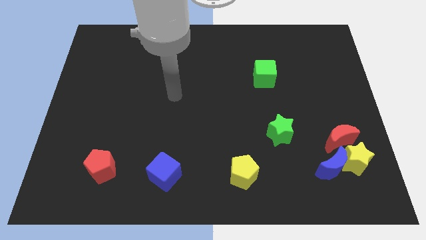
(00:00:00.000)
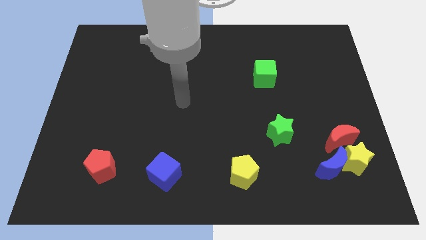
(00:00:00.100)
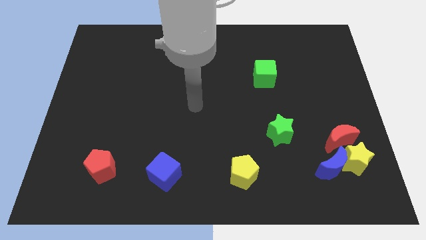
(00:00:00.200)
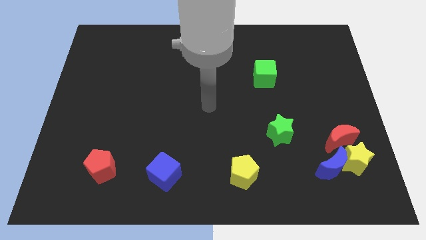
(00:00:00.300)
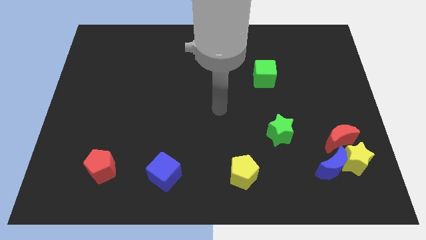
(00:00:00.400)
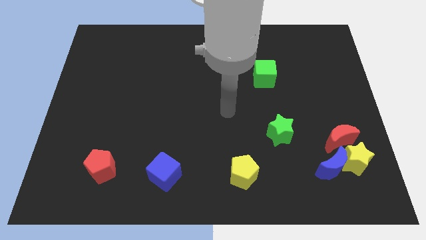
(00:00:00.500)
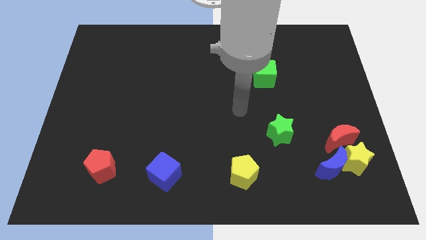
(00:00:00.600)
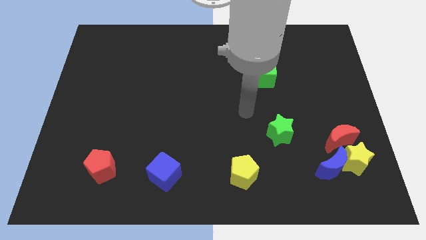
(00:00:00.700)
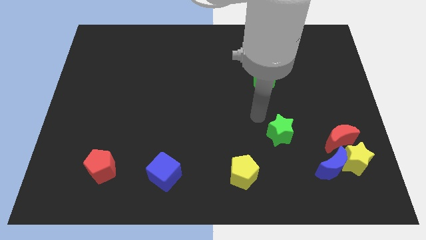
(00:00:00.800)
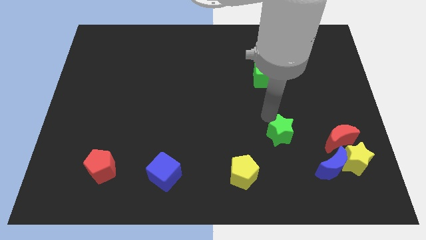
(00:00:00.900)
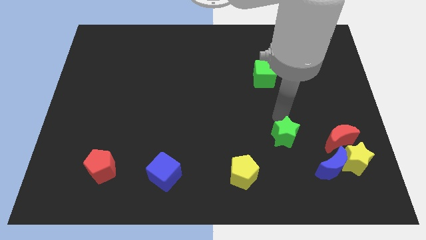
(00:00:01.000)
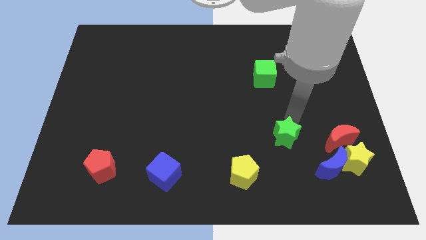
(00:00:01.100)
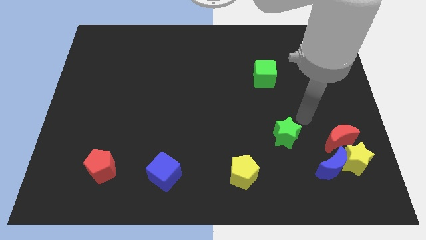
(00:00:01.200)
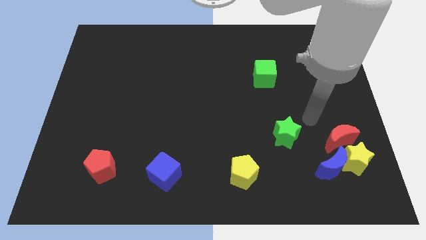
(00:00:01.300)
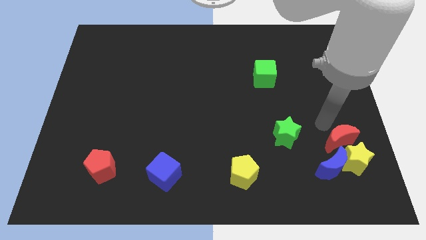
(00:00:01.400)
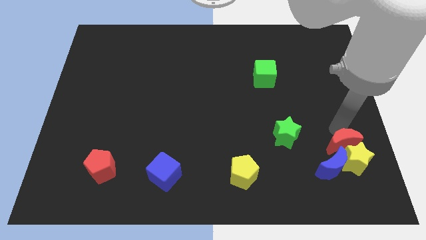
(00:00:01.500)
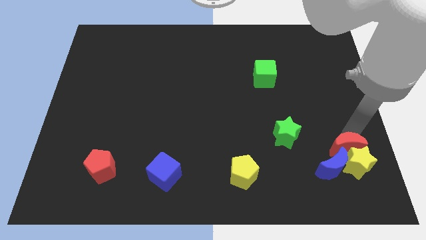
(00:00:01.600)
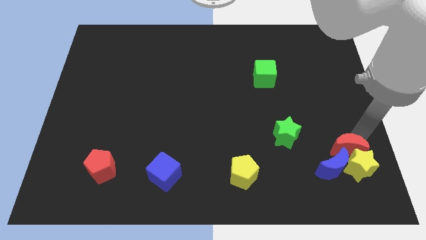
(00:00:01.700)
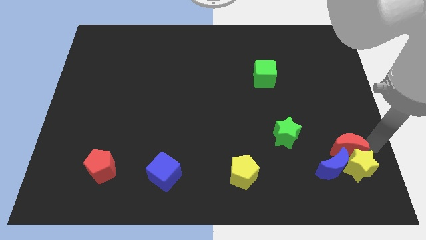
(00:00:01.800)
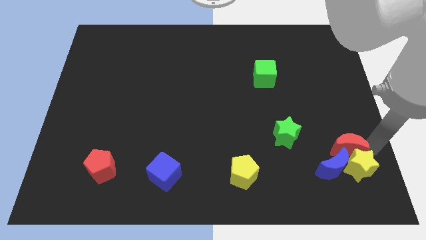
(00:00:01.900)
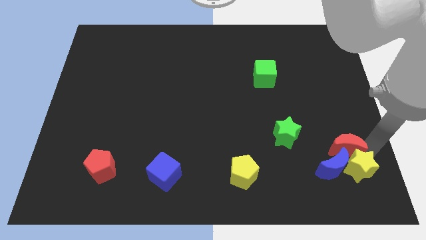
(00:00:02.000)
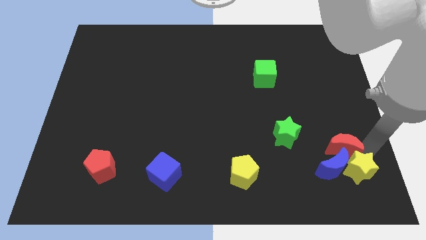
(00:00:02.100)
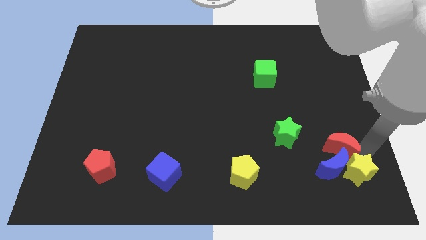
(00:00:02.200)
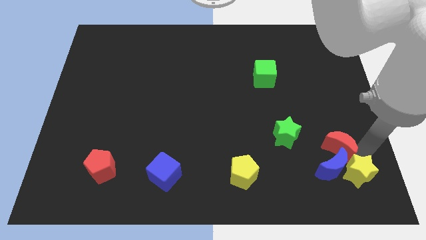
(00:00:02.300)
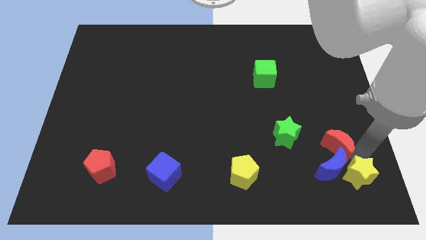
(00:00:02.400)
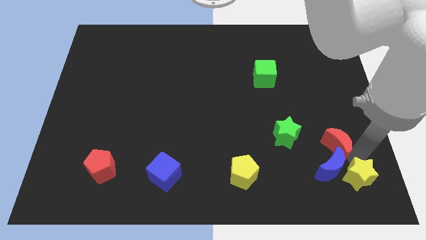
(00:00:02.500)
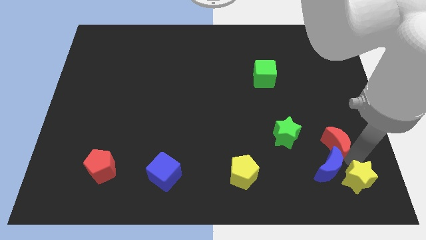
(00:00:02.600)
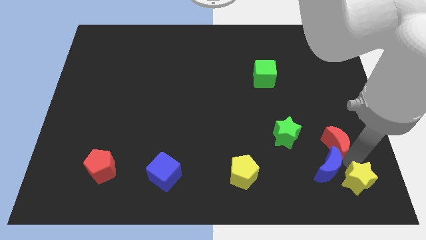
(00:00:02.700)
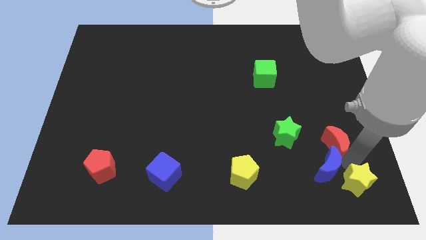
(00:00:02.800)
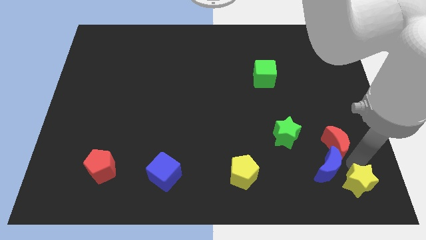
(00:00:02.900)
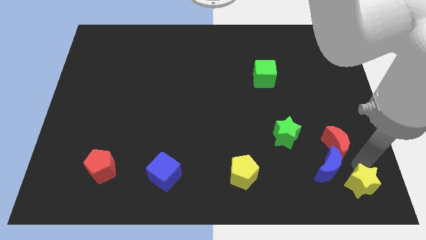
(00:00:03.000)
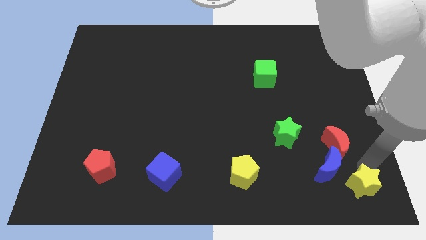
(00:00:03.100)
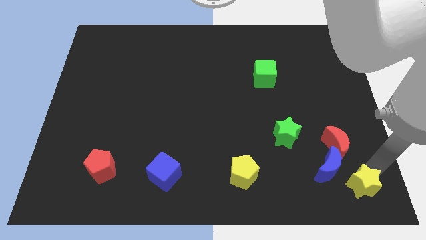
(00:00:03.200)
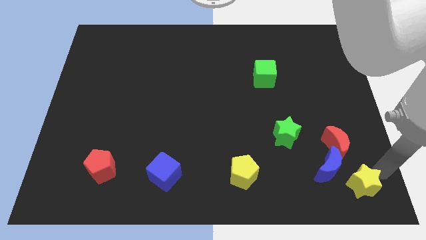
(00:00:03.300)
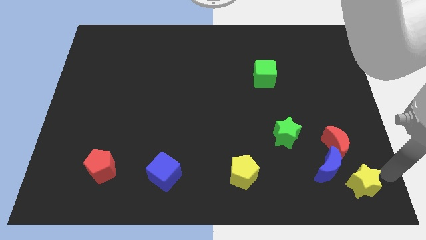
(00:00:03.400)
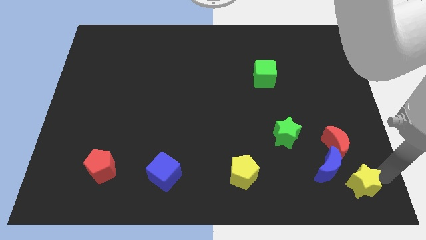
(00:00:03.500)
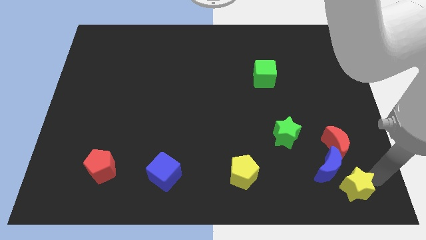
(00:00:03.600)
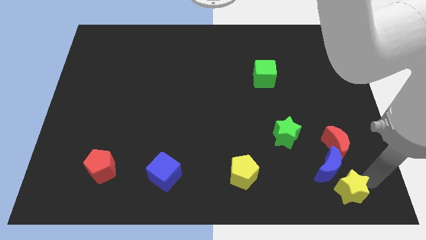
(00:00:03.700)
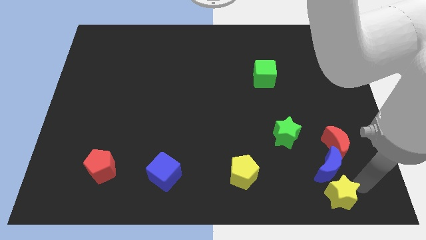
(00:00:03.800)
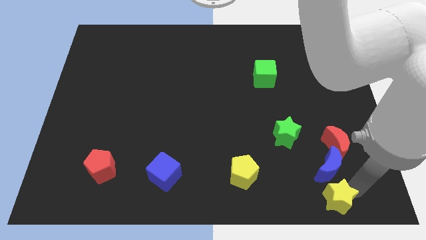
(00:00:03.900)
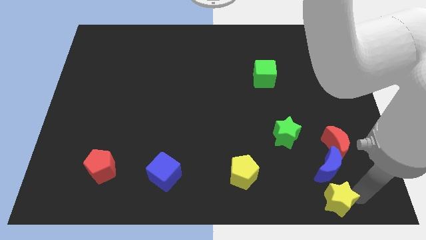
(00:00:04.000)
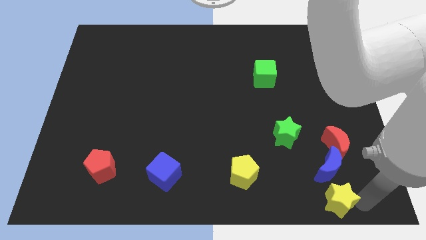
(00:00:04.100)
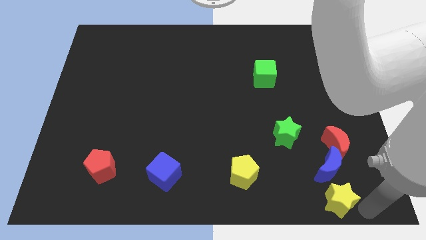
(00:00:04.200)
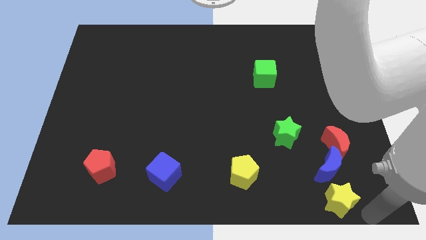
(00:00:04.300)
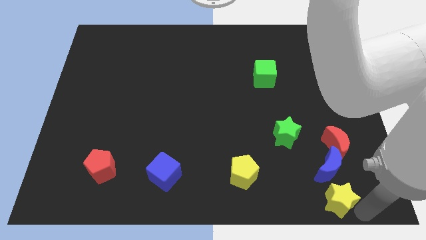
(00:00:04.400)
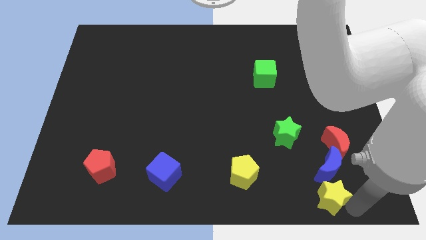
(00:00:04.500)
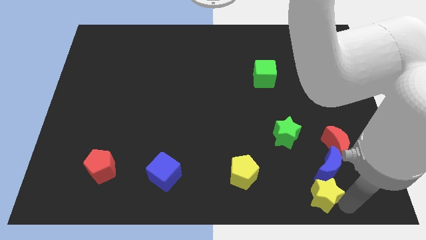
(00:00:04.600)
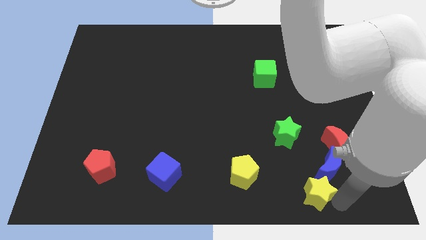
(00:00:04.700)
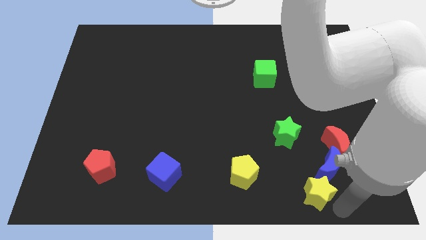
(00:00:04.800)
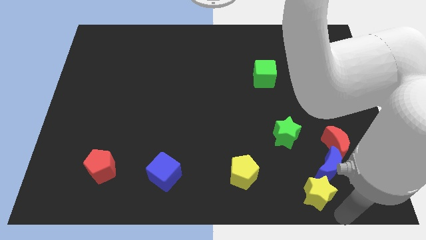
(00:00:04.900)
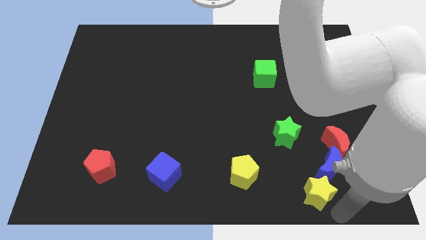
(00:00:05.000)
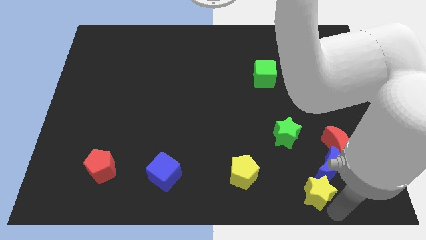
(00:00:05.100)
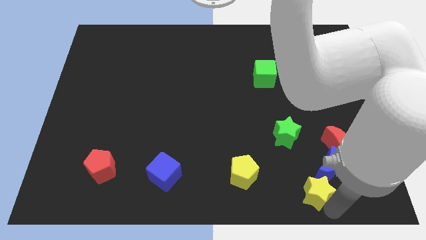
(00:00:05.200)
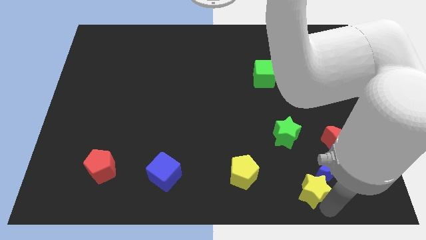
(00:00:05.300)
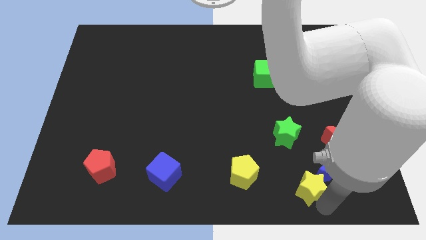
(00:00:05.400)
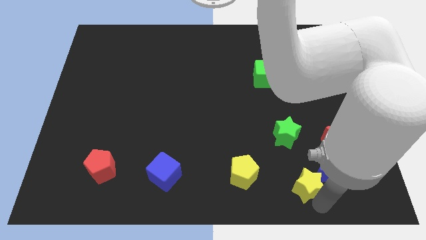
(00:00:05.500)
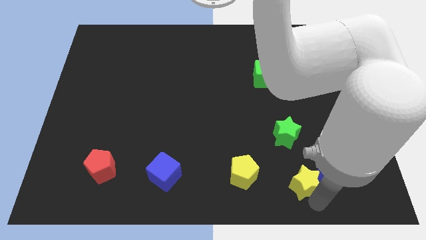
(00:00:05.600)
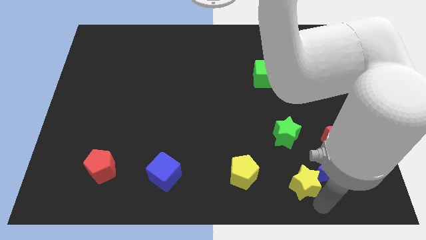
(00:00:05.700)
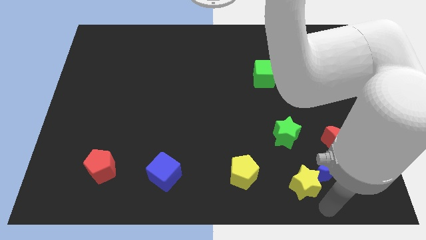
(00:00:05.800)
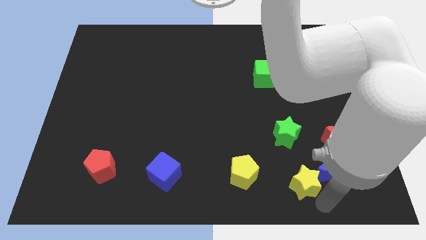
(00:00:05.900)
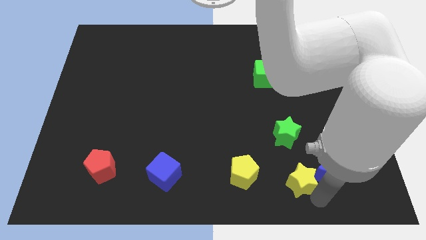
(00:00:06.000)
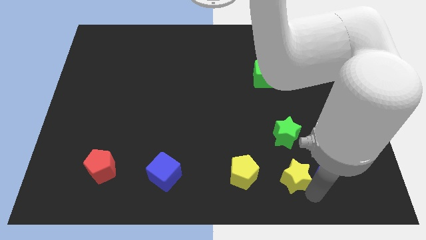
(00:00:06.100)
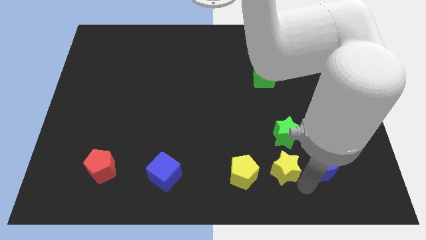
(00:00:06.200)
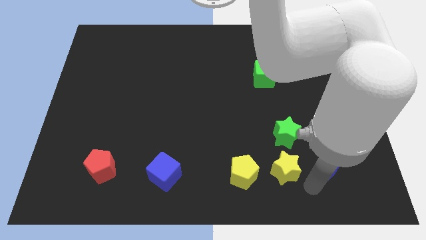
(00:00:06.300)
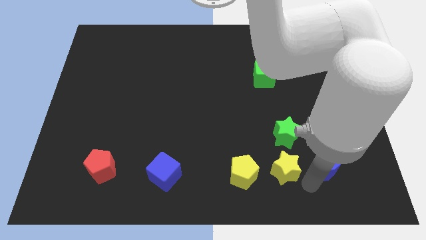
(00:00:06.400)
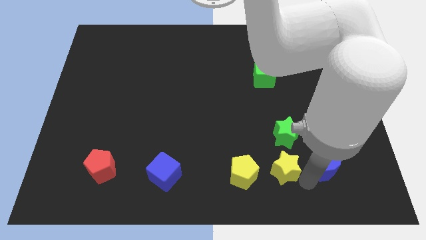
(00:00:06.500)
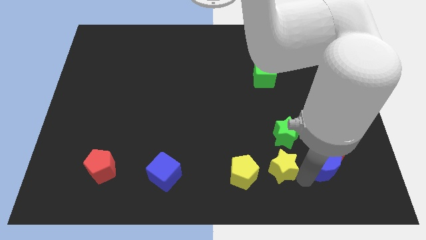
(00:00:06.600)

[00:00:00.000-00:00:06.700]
push the yellow star to the bottom left side of the green star
